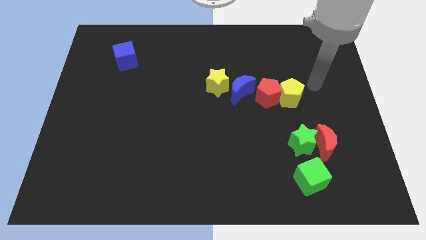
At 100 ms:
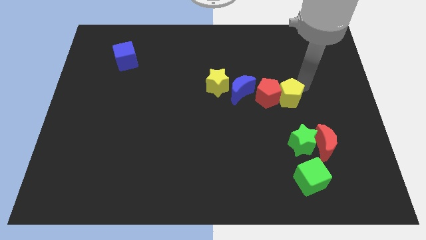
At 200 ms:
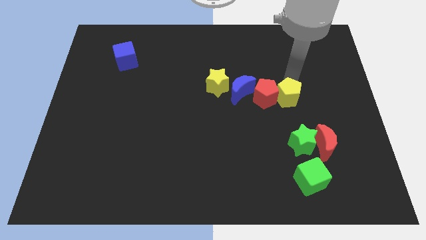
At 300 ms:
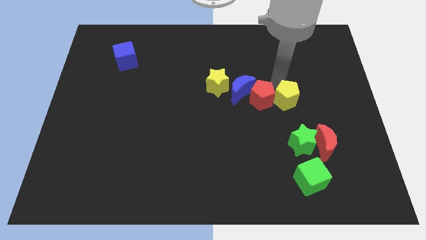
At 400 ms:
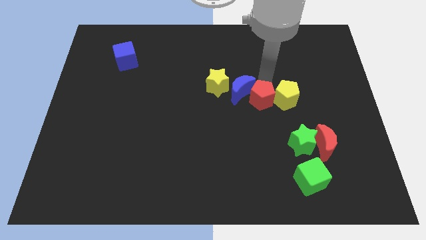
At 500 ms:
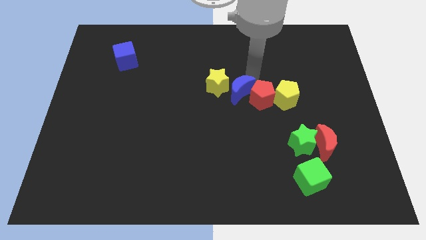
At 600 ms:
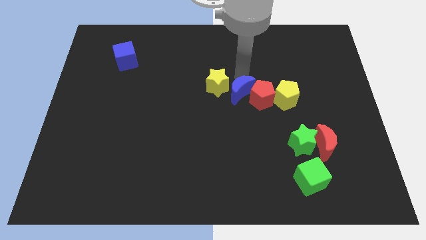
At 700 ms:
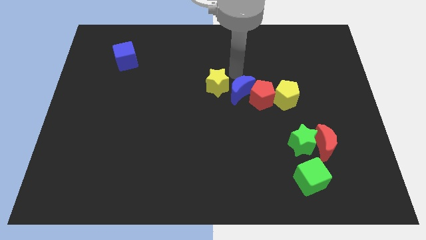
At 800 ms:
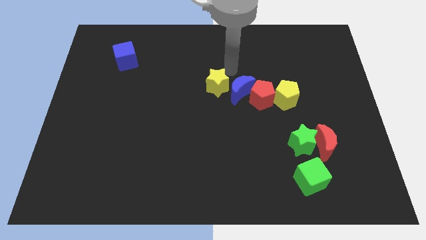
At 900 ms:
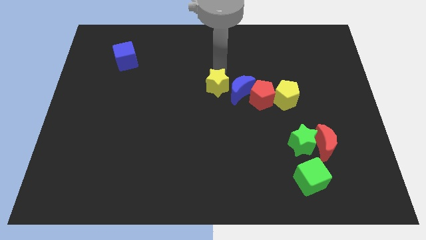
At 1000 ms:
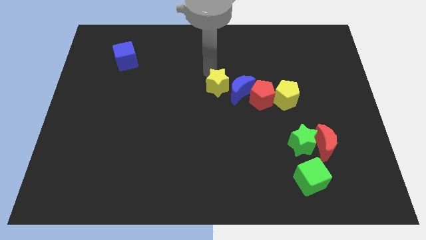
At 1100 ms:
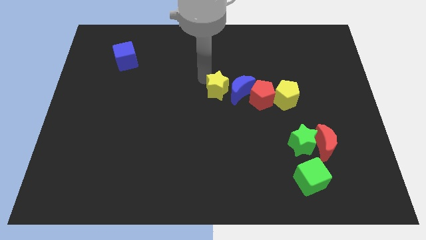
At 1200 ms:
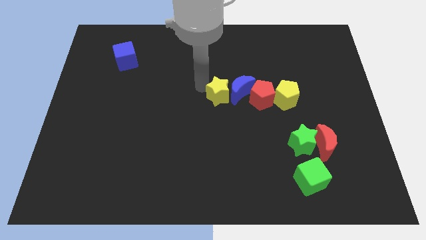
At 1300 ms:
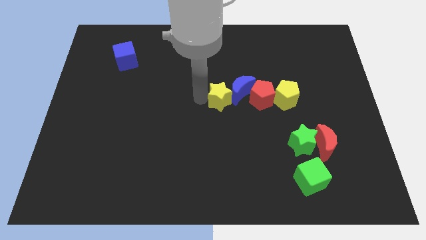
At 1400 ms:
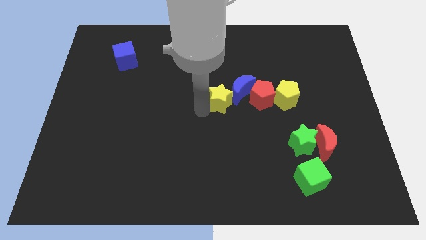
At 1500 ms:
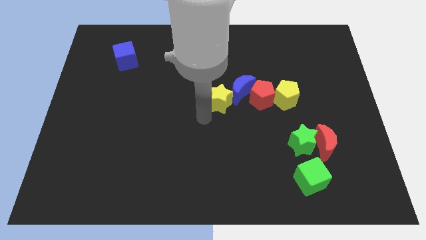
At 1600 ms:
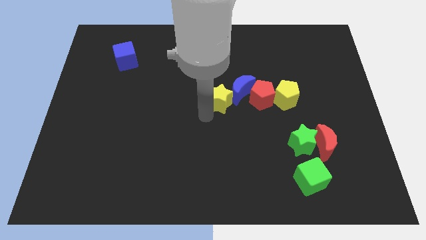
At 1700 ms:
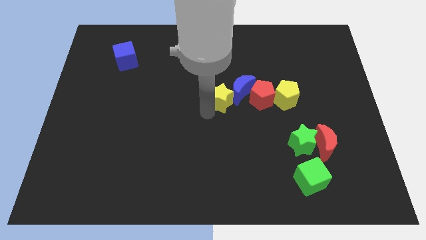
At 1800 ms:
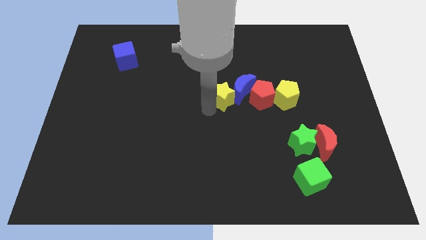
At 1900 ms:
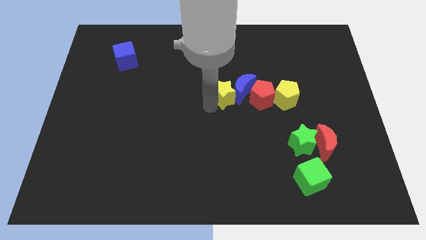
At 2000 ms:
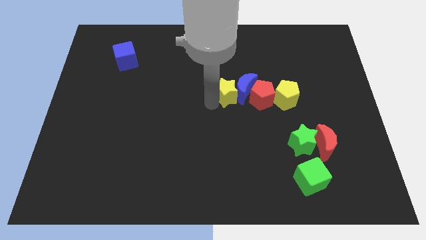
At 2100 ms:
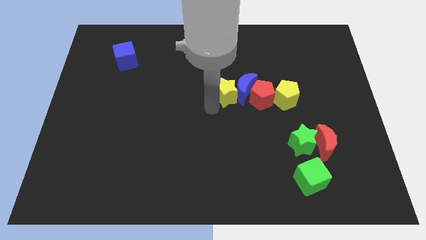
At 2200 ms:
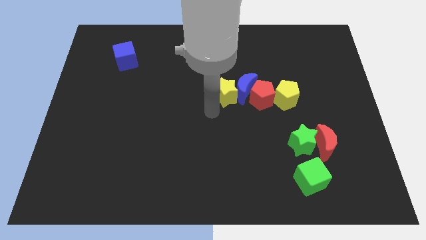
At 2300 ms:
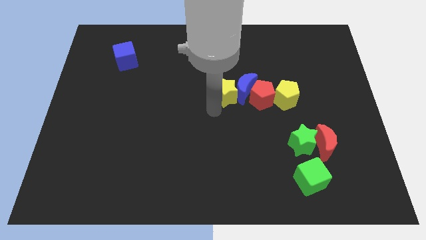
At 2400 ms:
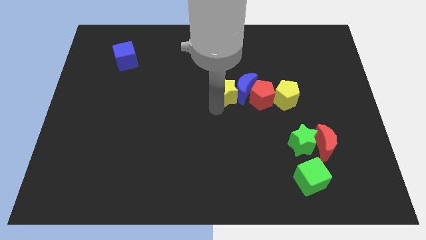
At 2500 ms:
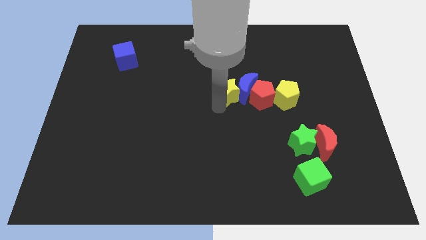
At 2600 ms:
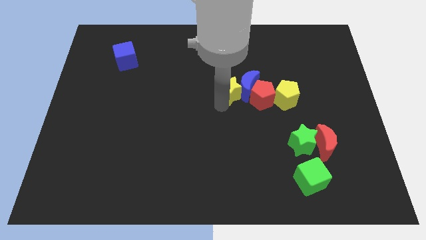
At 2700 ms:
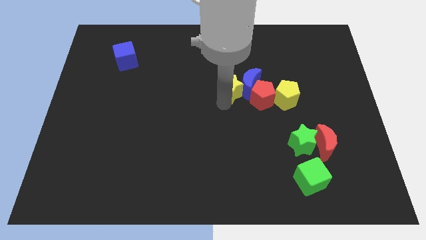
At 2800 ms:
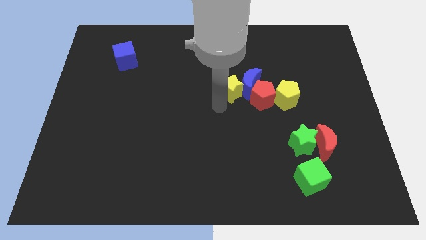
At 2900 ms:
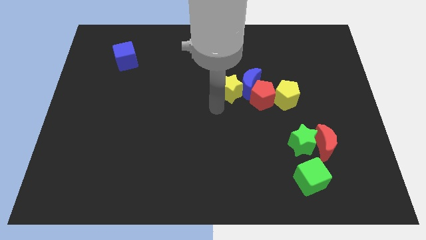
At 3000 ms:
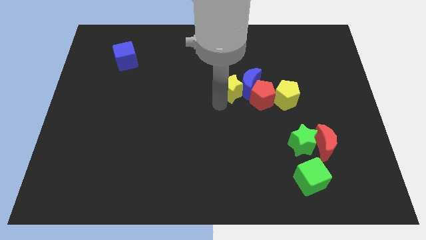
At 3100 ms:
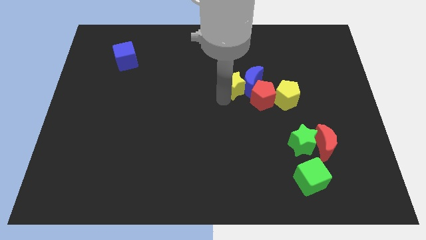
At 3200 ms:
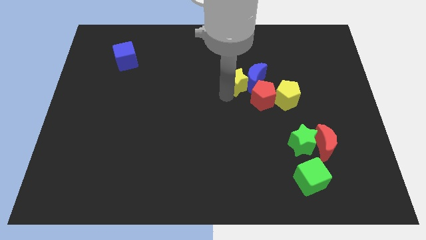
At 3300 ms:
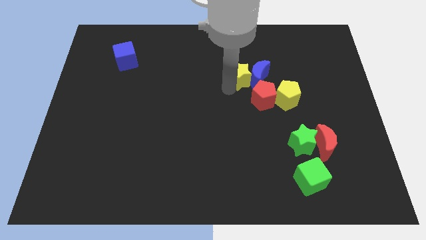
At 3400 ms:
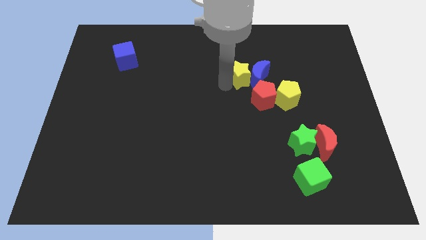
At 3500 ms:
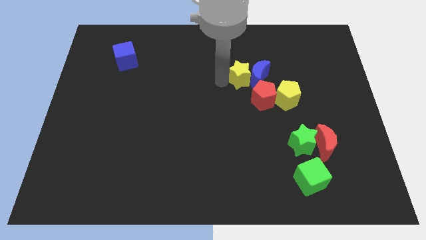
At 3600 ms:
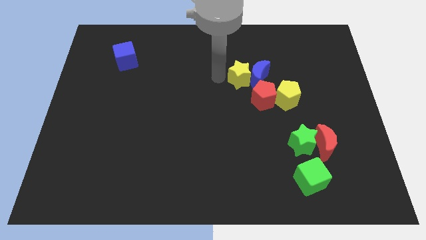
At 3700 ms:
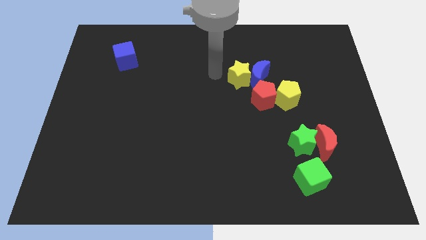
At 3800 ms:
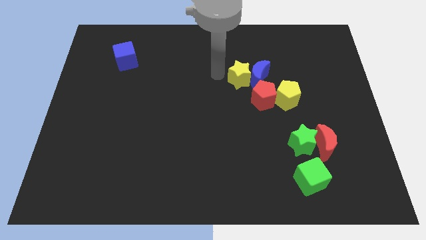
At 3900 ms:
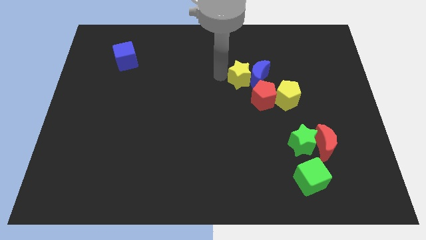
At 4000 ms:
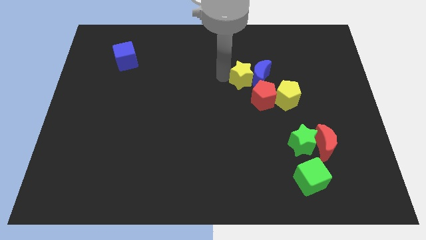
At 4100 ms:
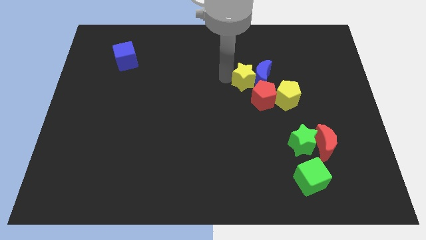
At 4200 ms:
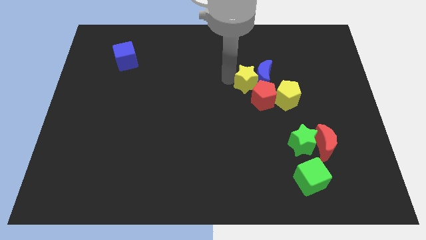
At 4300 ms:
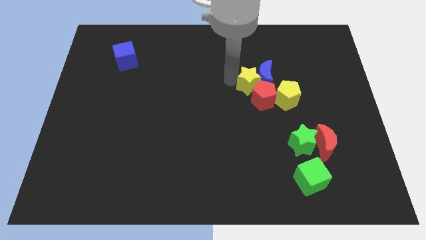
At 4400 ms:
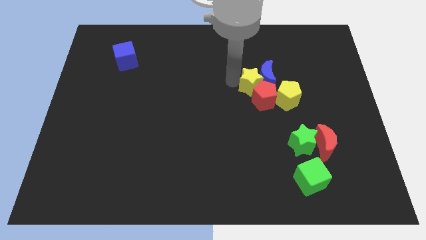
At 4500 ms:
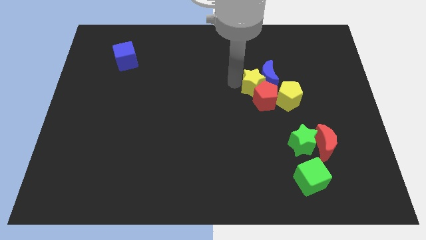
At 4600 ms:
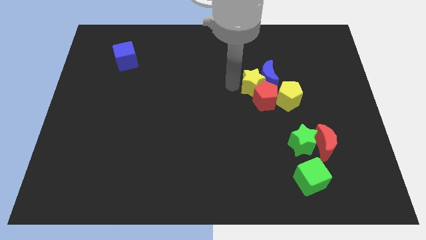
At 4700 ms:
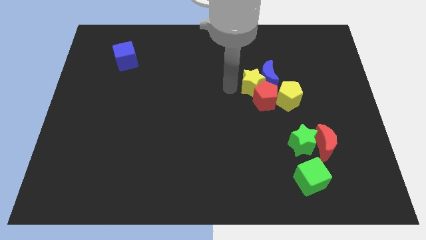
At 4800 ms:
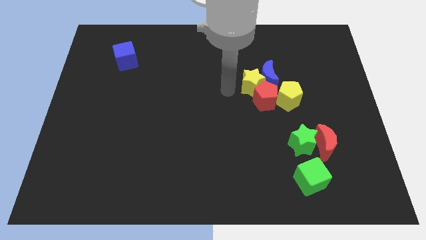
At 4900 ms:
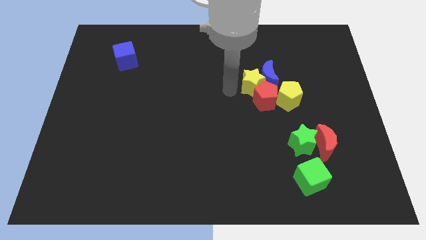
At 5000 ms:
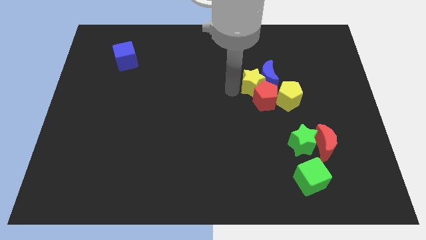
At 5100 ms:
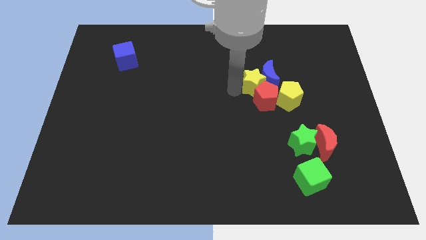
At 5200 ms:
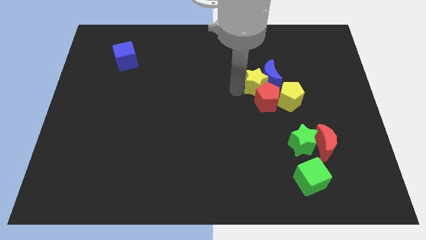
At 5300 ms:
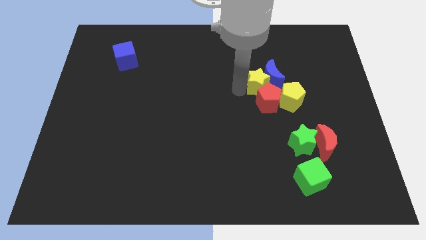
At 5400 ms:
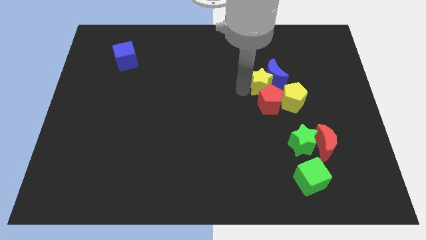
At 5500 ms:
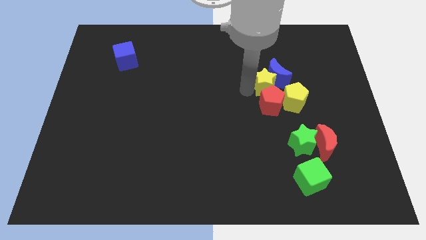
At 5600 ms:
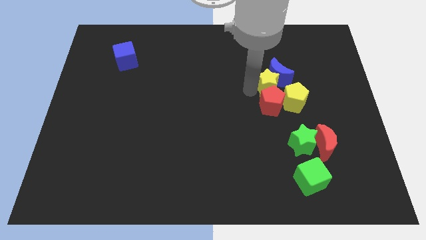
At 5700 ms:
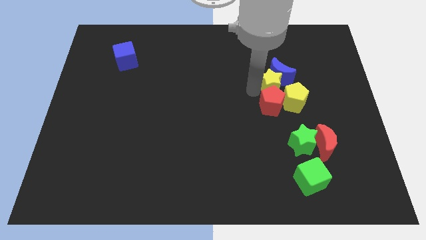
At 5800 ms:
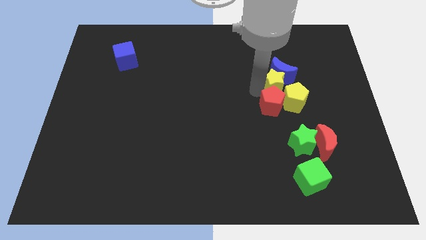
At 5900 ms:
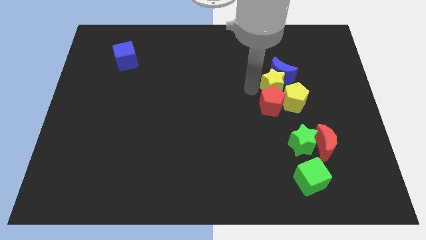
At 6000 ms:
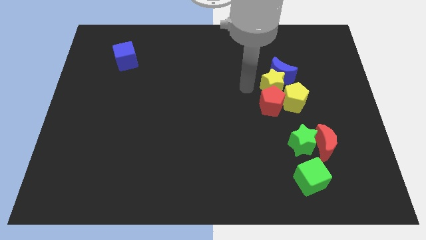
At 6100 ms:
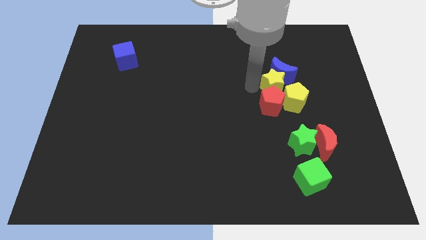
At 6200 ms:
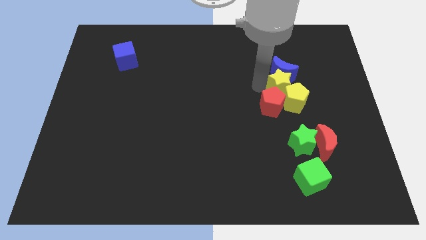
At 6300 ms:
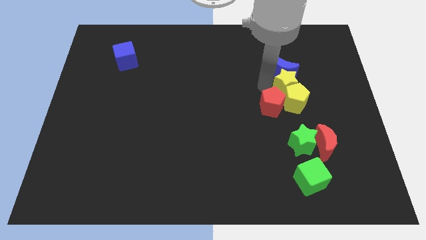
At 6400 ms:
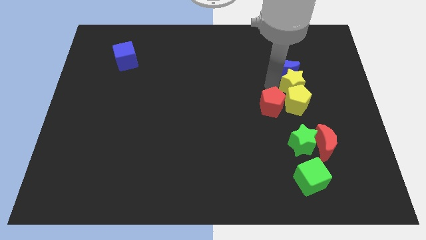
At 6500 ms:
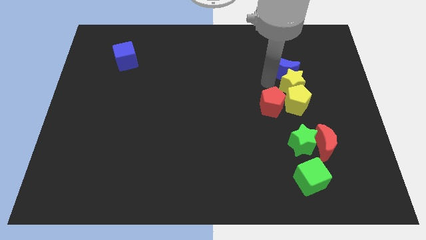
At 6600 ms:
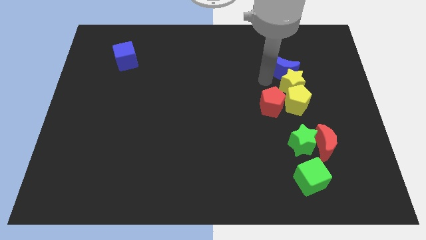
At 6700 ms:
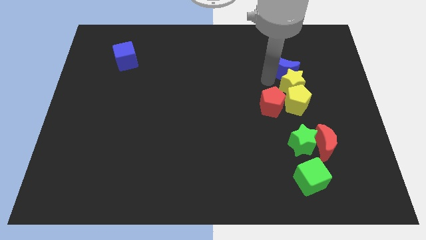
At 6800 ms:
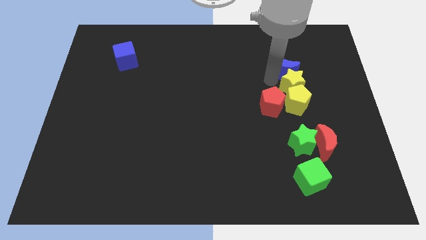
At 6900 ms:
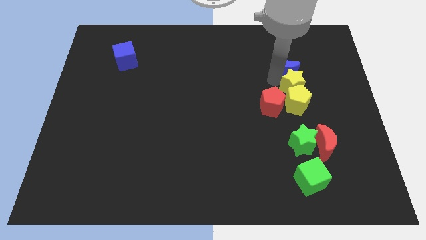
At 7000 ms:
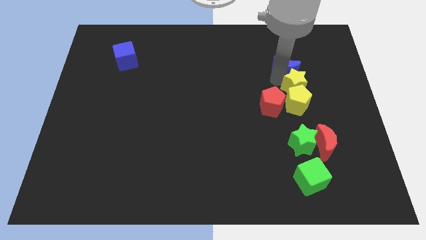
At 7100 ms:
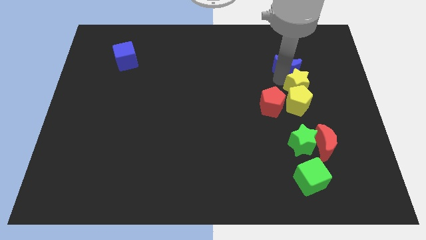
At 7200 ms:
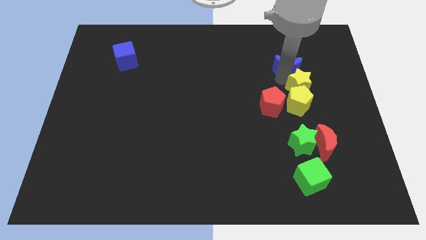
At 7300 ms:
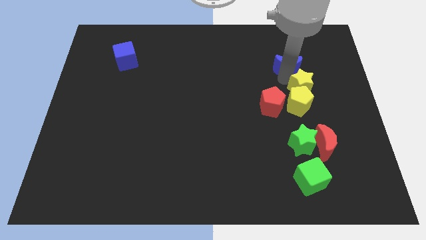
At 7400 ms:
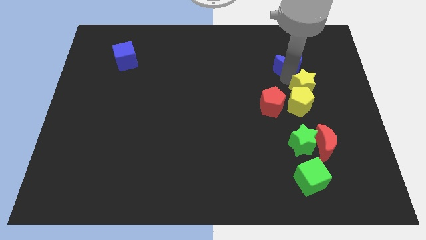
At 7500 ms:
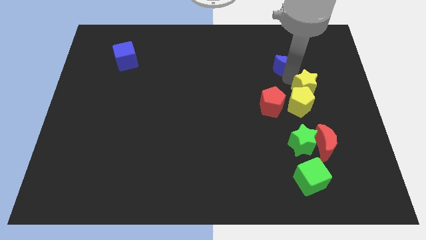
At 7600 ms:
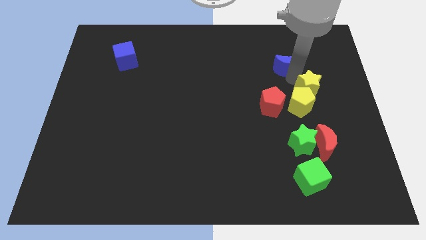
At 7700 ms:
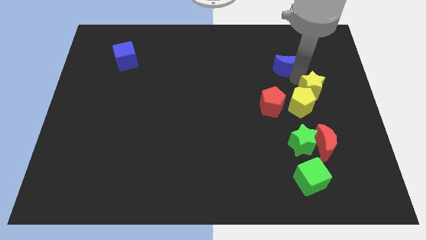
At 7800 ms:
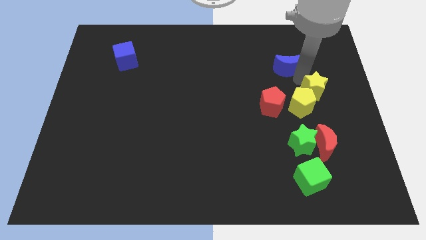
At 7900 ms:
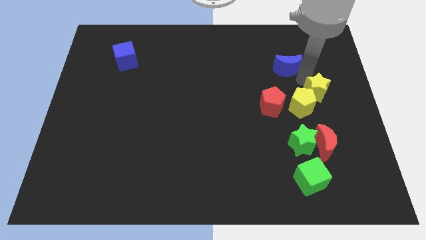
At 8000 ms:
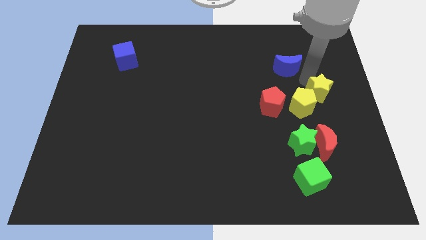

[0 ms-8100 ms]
push the yellow star to the right side
